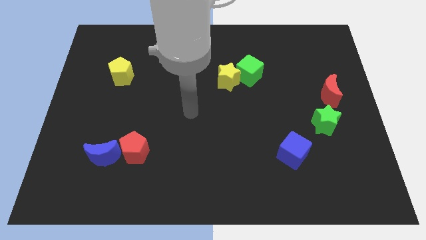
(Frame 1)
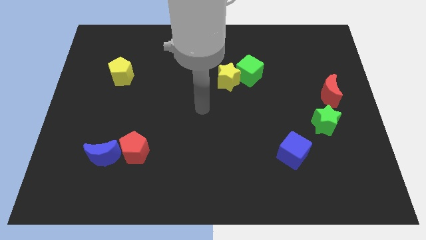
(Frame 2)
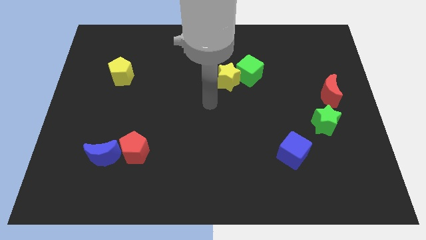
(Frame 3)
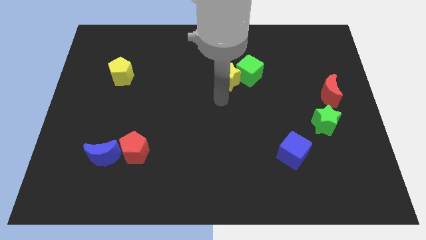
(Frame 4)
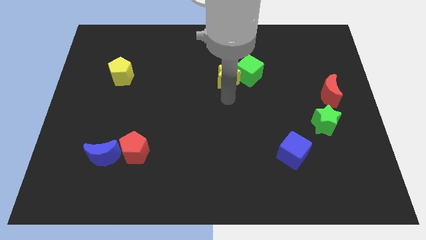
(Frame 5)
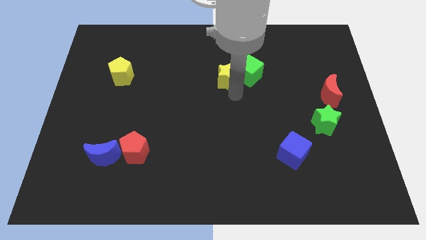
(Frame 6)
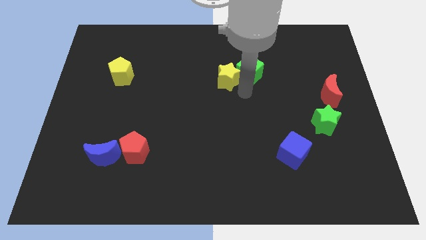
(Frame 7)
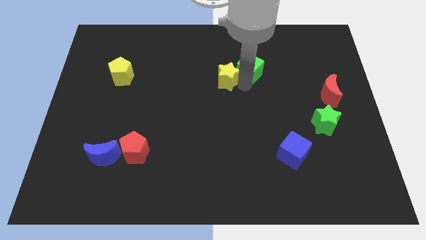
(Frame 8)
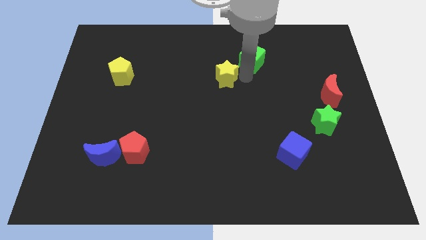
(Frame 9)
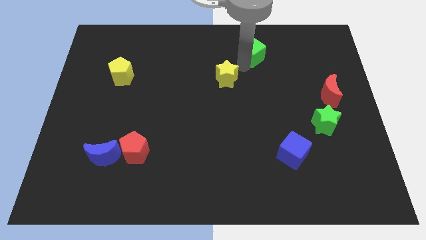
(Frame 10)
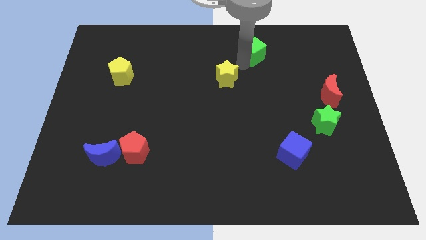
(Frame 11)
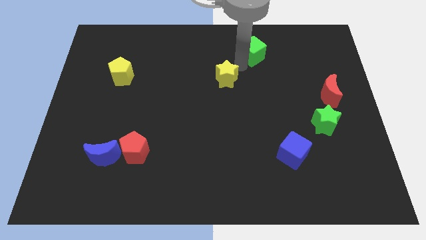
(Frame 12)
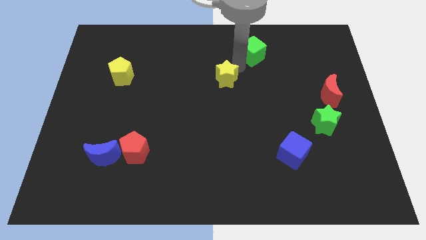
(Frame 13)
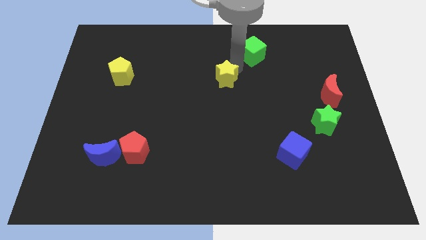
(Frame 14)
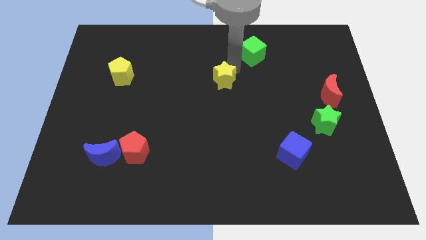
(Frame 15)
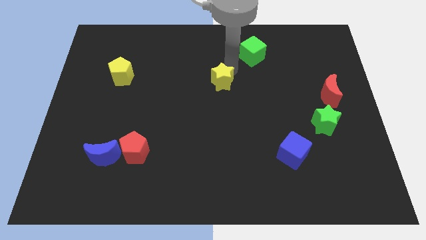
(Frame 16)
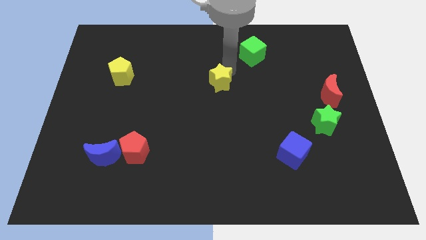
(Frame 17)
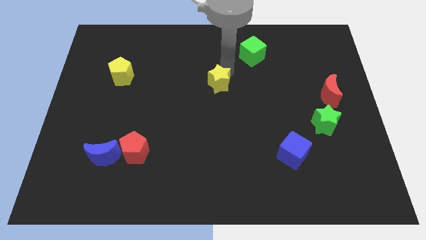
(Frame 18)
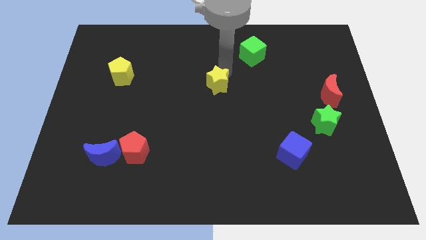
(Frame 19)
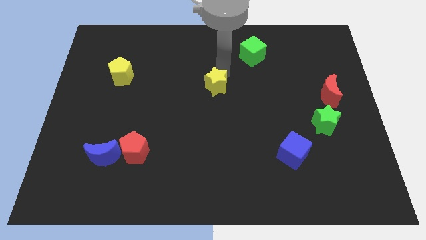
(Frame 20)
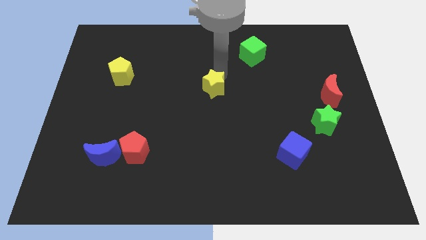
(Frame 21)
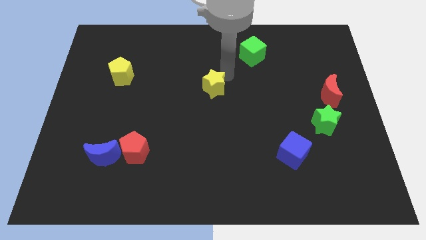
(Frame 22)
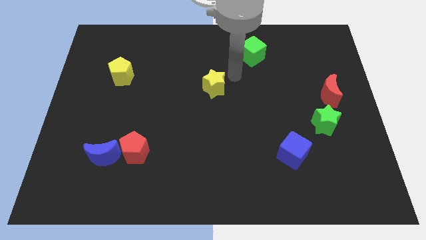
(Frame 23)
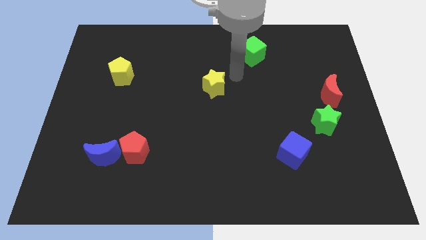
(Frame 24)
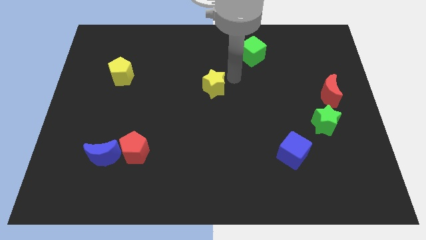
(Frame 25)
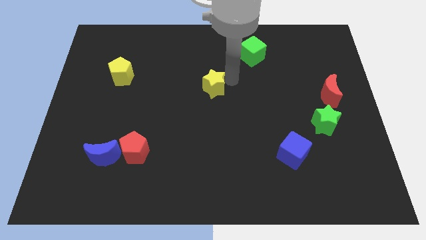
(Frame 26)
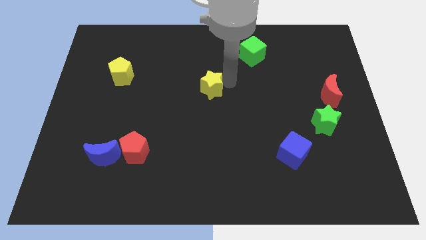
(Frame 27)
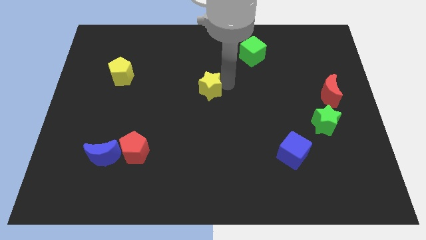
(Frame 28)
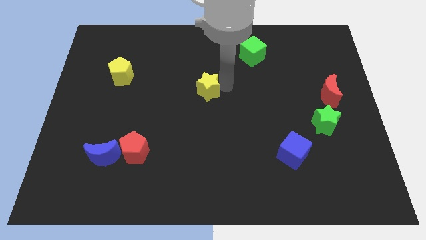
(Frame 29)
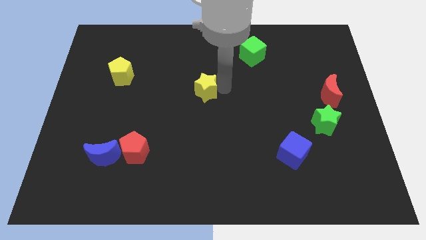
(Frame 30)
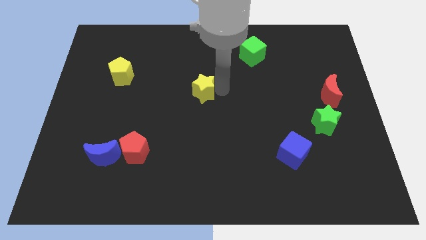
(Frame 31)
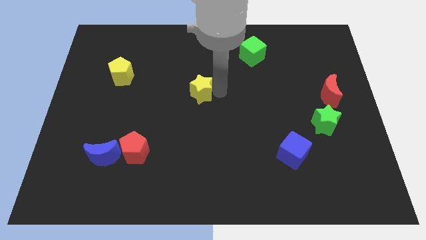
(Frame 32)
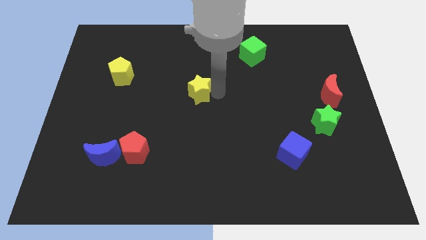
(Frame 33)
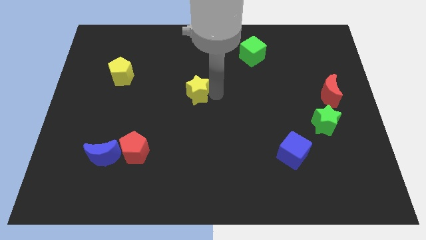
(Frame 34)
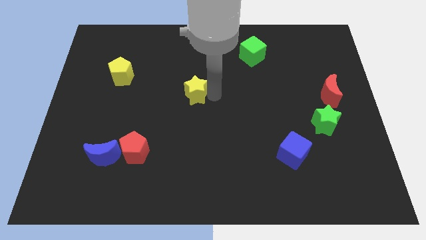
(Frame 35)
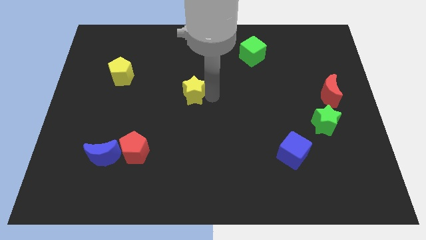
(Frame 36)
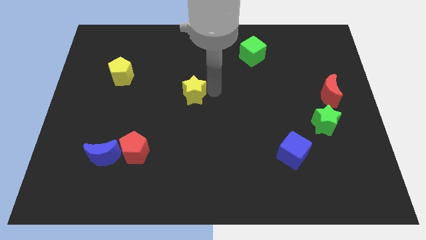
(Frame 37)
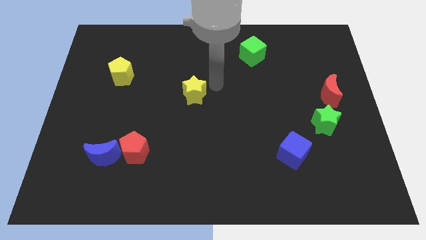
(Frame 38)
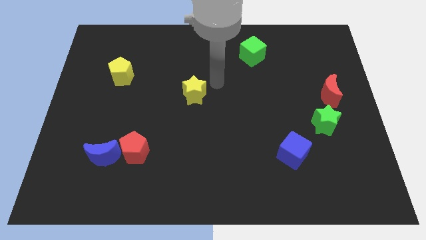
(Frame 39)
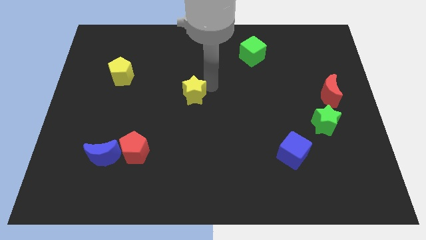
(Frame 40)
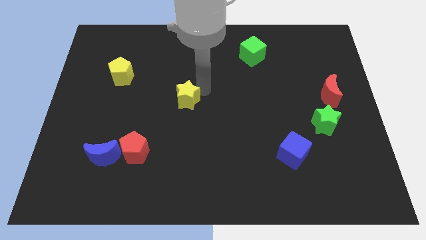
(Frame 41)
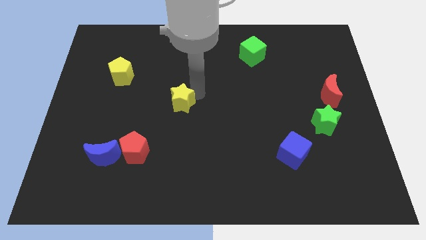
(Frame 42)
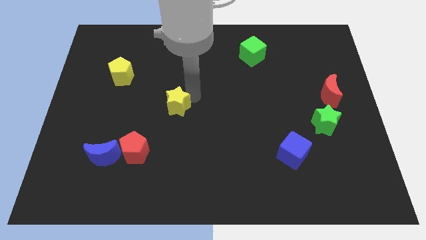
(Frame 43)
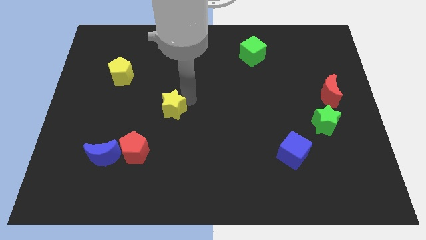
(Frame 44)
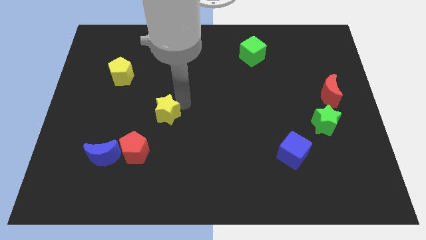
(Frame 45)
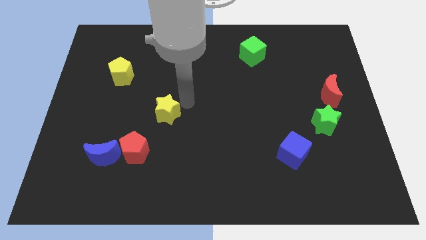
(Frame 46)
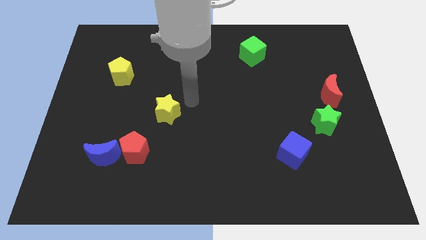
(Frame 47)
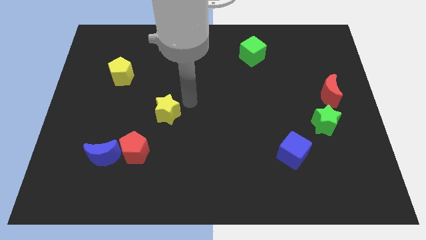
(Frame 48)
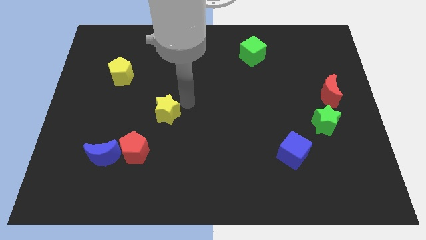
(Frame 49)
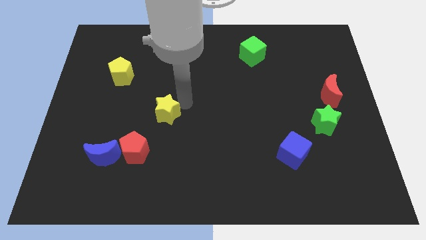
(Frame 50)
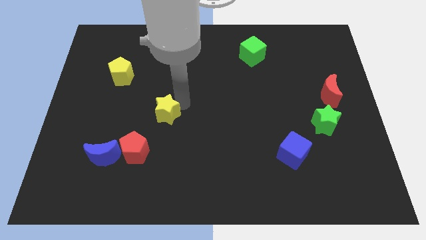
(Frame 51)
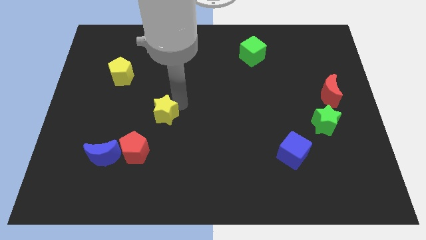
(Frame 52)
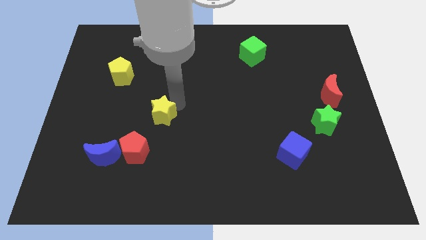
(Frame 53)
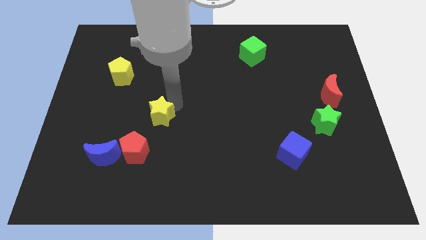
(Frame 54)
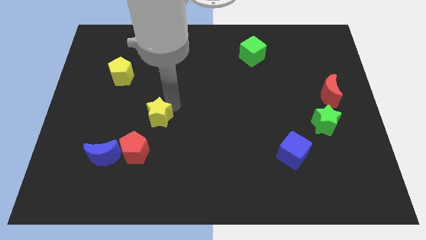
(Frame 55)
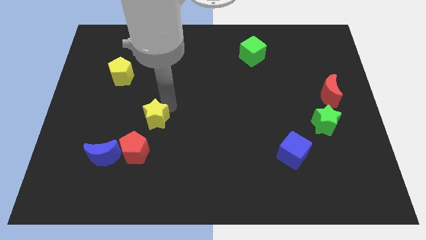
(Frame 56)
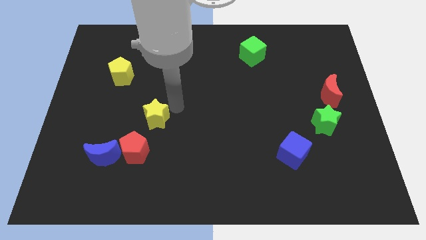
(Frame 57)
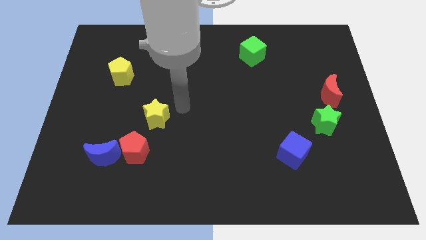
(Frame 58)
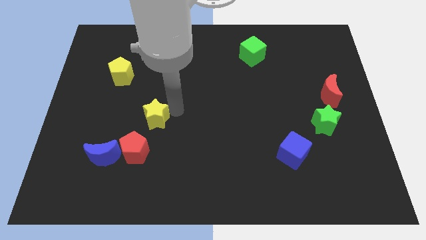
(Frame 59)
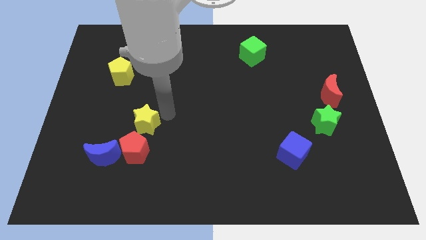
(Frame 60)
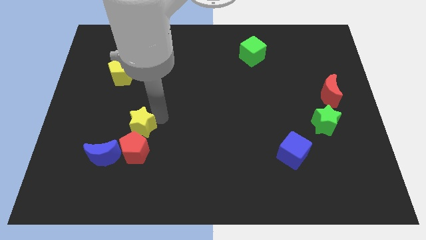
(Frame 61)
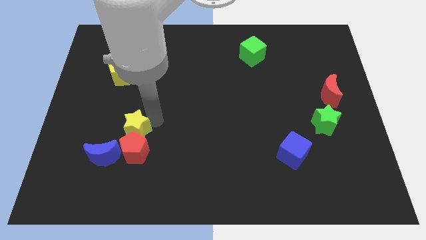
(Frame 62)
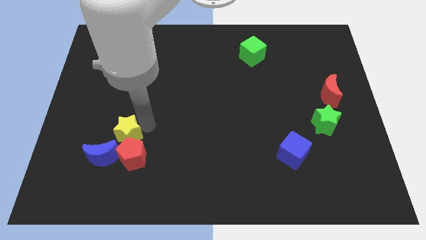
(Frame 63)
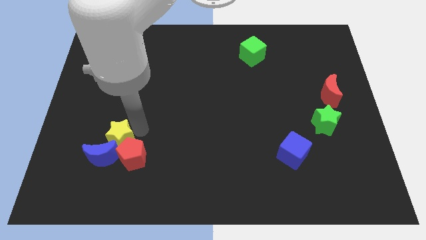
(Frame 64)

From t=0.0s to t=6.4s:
put the yellow star to the left side of the red pentagon

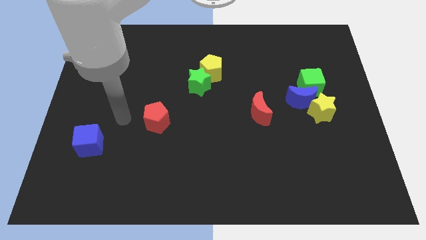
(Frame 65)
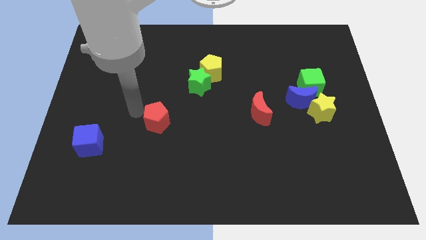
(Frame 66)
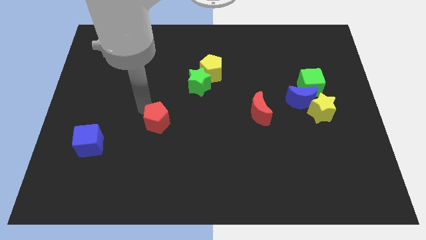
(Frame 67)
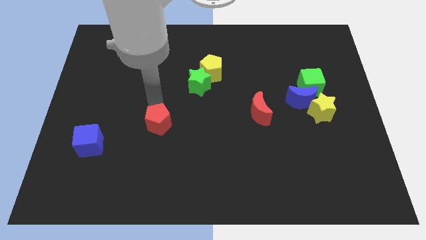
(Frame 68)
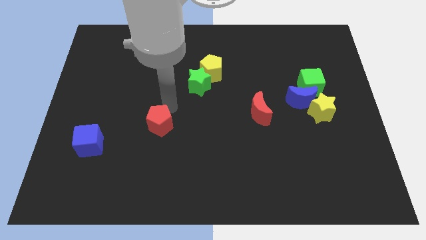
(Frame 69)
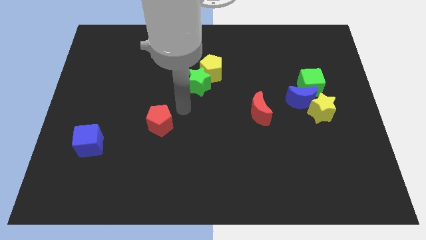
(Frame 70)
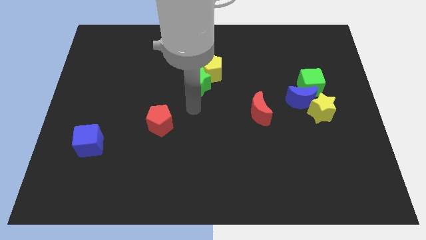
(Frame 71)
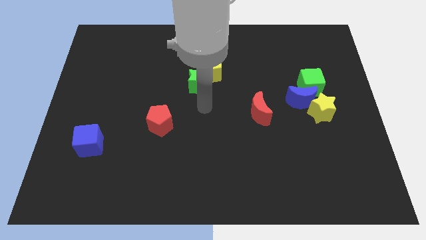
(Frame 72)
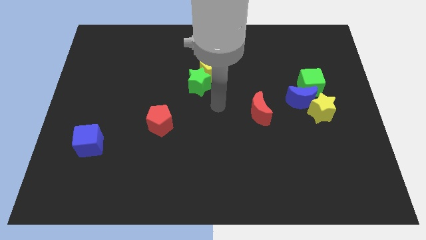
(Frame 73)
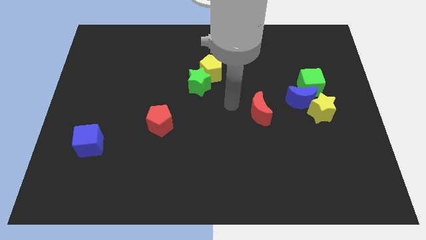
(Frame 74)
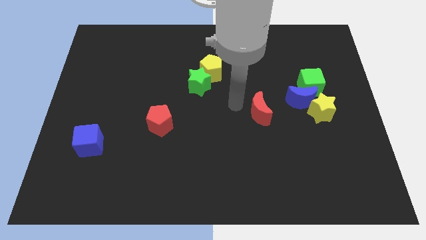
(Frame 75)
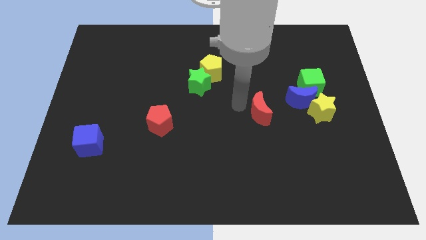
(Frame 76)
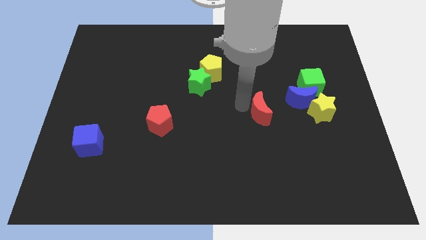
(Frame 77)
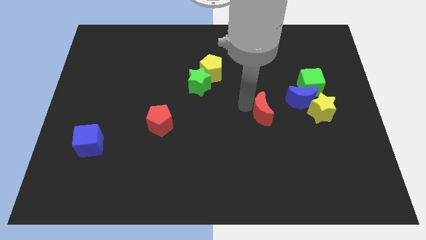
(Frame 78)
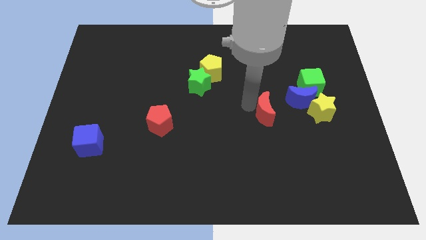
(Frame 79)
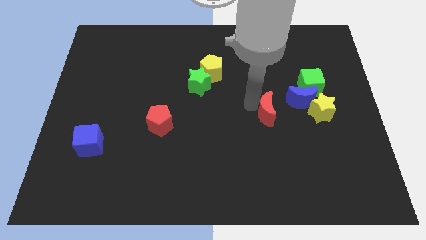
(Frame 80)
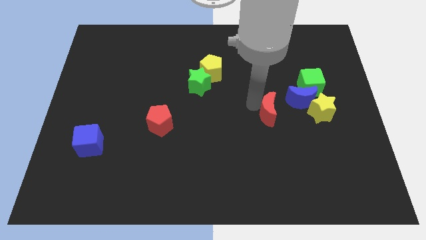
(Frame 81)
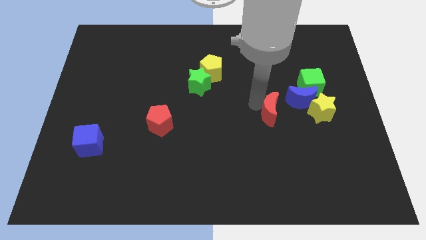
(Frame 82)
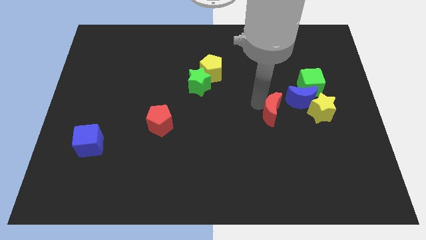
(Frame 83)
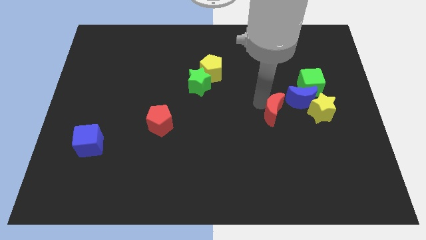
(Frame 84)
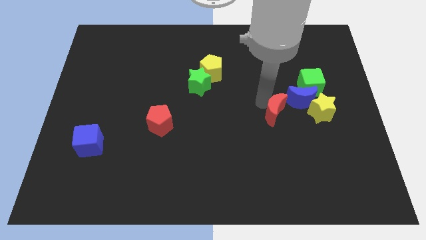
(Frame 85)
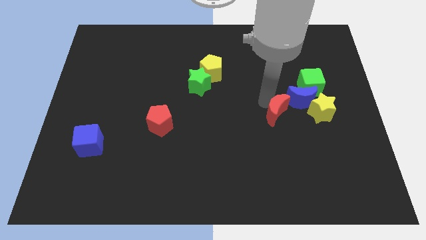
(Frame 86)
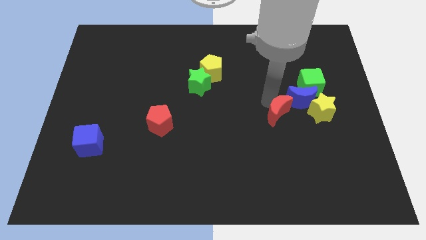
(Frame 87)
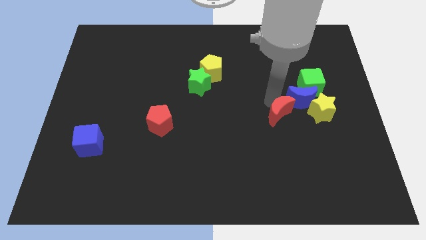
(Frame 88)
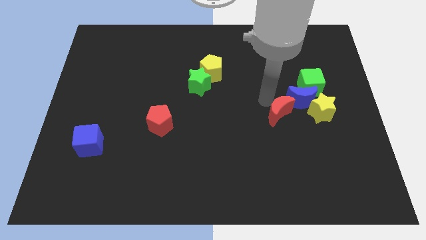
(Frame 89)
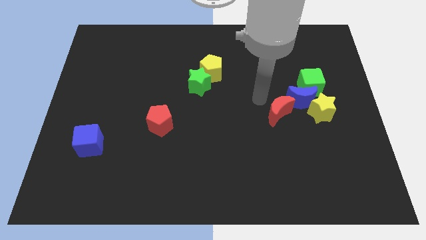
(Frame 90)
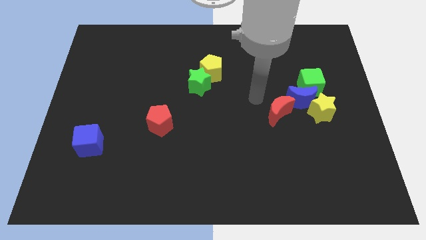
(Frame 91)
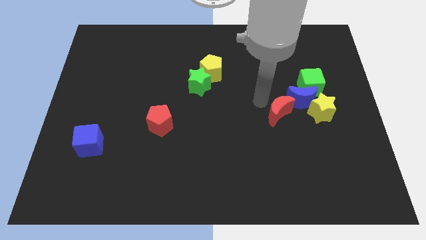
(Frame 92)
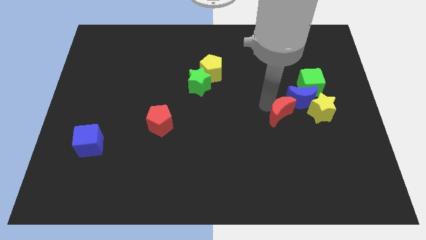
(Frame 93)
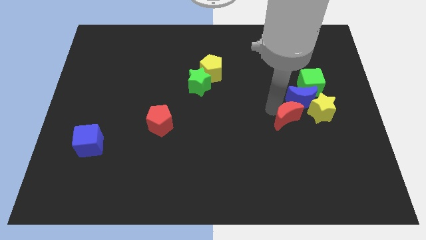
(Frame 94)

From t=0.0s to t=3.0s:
move the red moon to the bottom side of the blue moon
